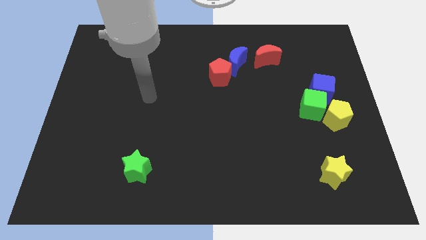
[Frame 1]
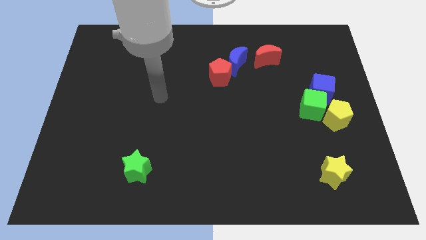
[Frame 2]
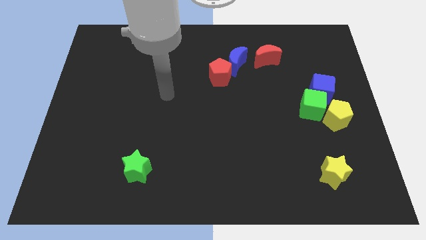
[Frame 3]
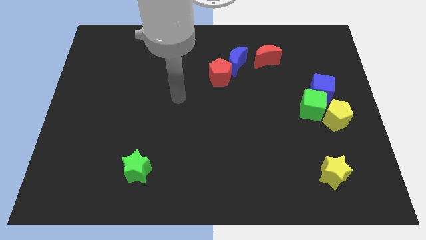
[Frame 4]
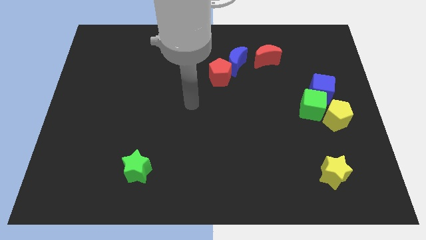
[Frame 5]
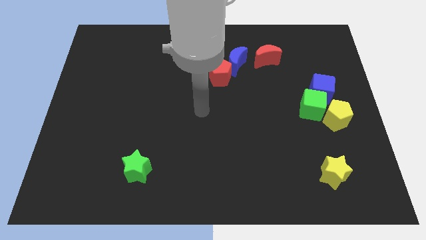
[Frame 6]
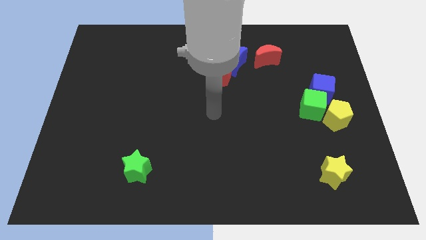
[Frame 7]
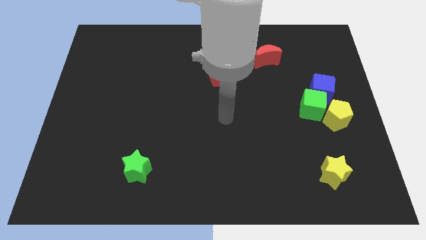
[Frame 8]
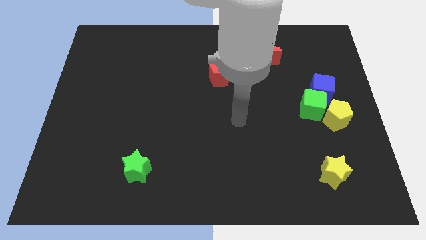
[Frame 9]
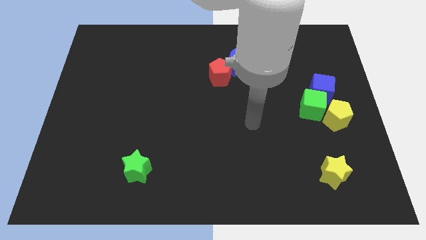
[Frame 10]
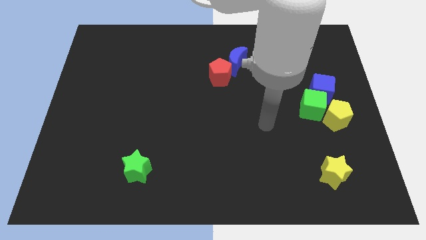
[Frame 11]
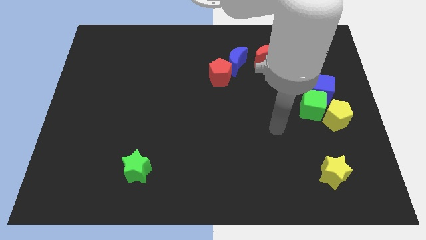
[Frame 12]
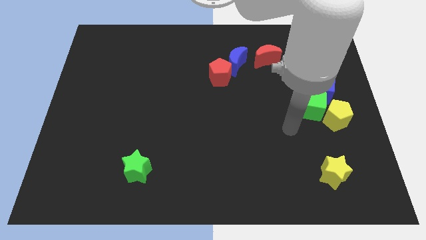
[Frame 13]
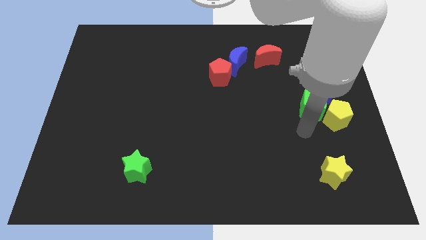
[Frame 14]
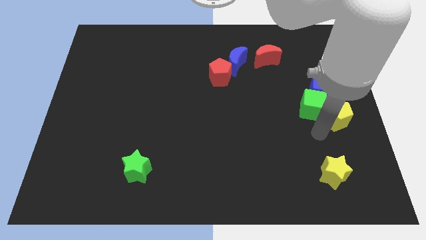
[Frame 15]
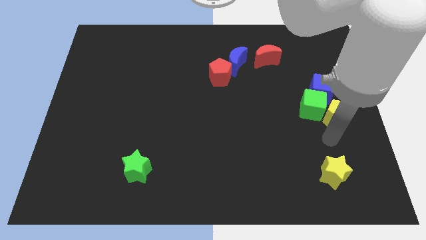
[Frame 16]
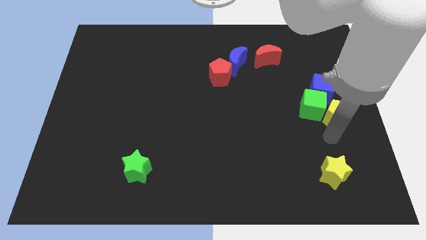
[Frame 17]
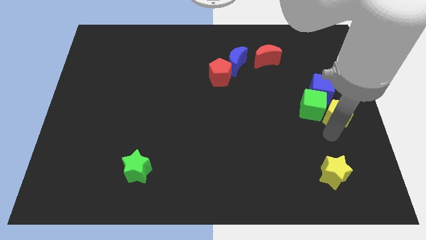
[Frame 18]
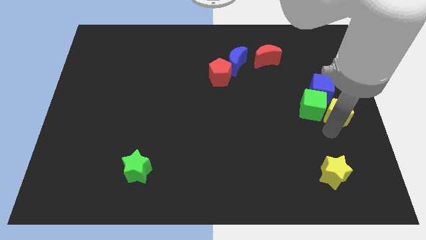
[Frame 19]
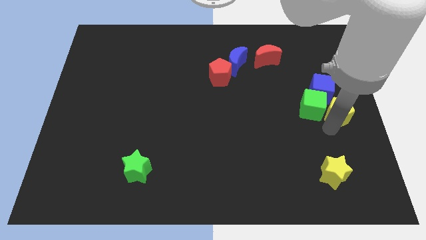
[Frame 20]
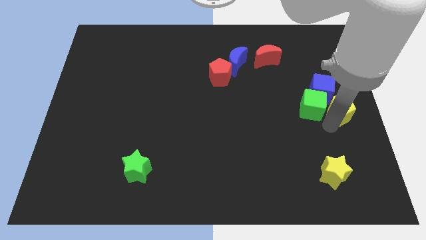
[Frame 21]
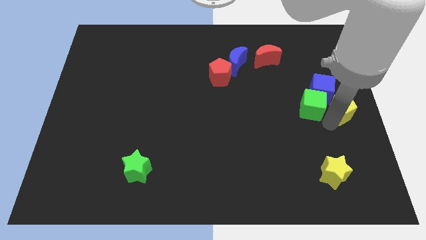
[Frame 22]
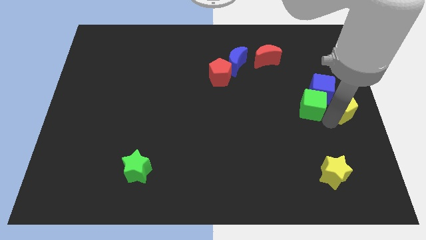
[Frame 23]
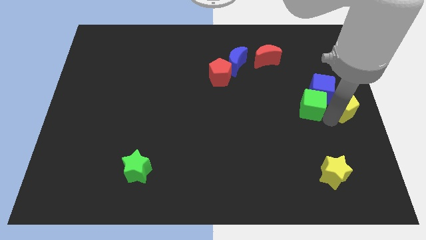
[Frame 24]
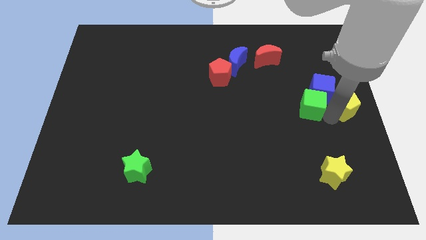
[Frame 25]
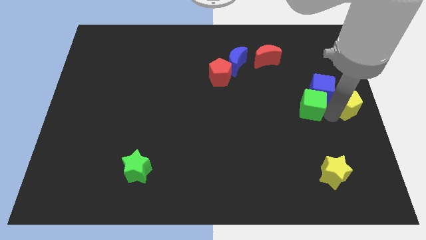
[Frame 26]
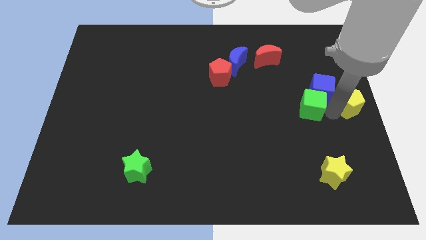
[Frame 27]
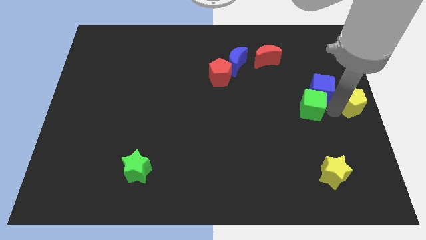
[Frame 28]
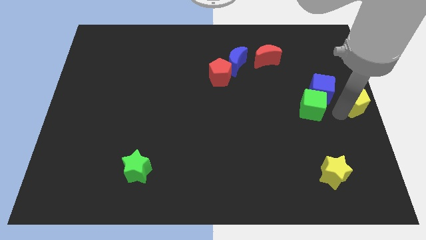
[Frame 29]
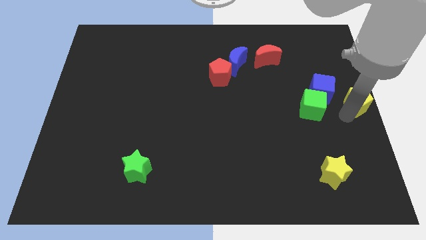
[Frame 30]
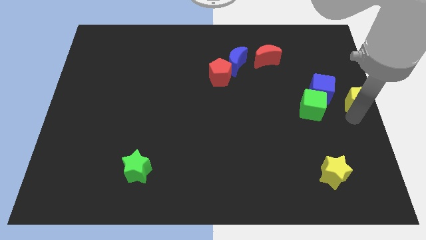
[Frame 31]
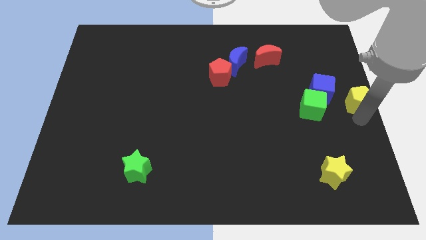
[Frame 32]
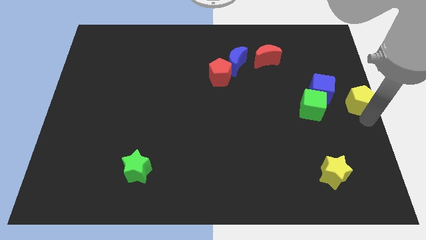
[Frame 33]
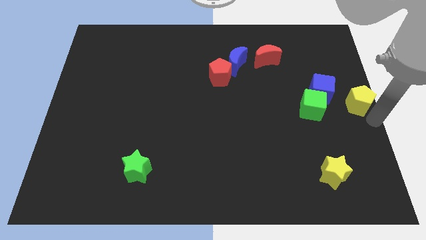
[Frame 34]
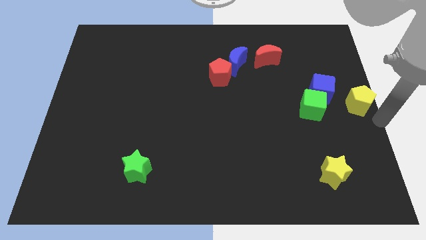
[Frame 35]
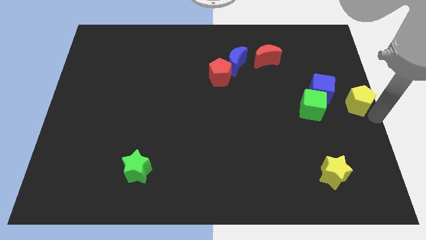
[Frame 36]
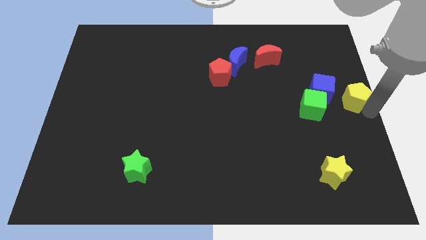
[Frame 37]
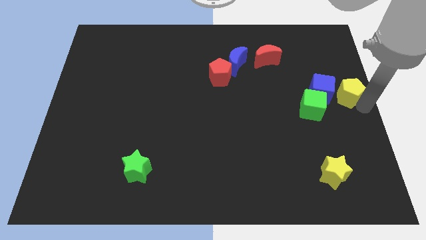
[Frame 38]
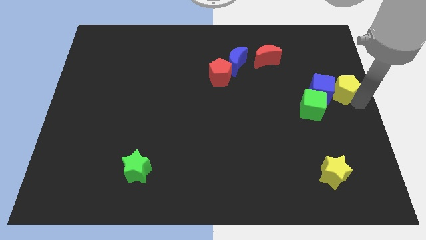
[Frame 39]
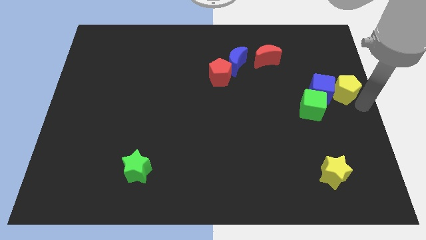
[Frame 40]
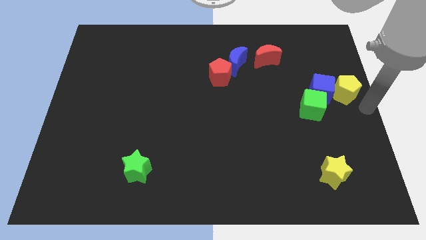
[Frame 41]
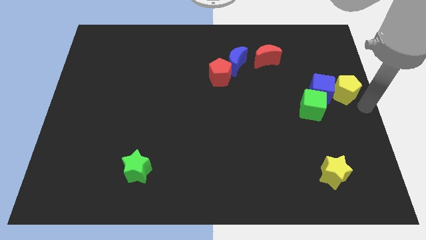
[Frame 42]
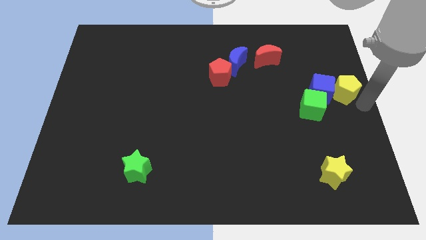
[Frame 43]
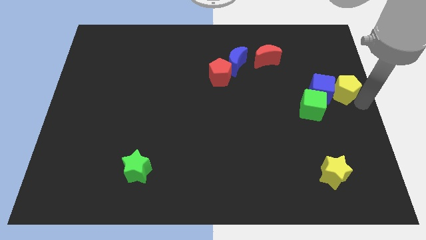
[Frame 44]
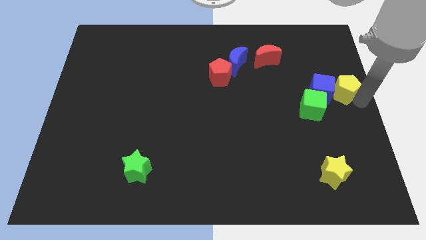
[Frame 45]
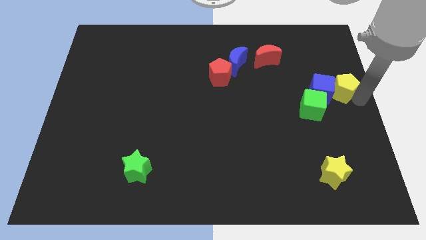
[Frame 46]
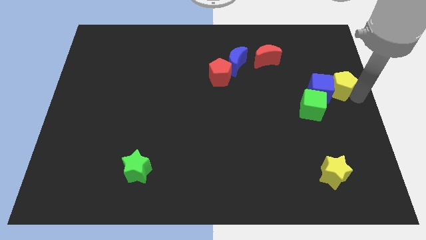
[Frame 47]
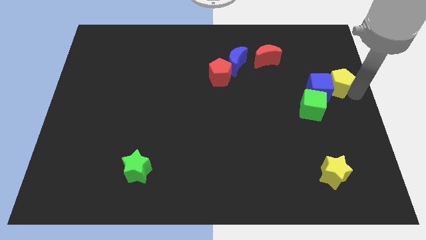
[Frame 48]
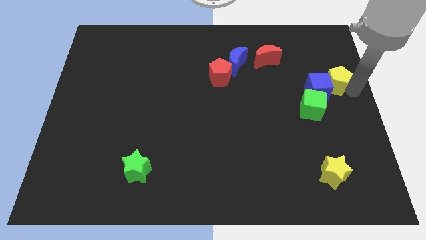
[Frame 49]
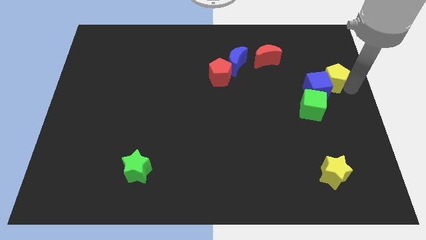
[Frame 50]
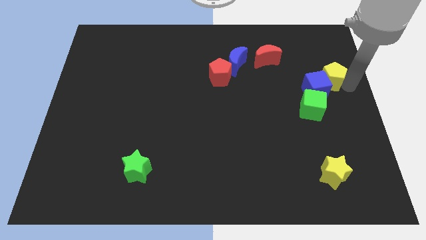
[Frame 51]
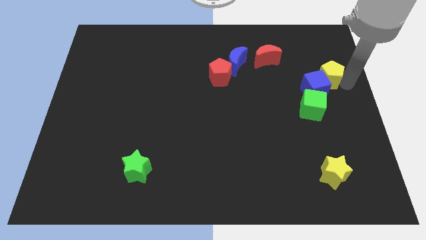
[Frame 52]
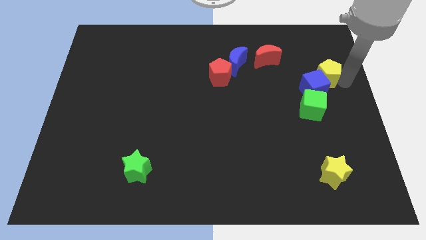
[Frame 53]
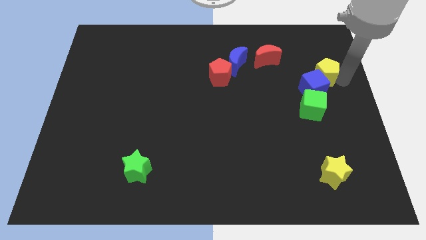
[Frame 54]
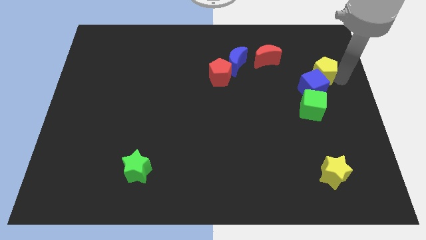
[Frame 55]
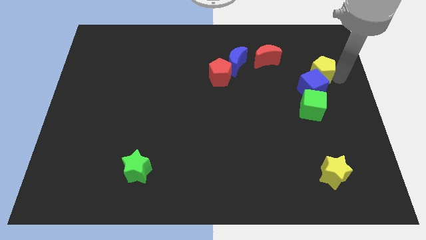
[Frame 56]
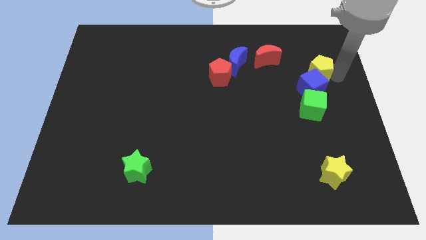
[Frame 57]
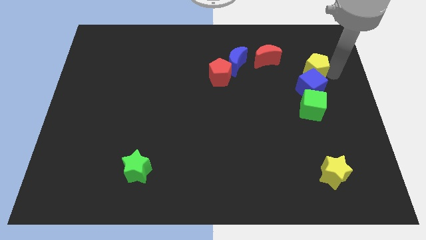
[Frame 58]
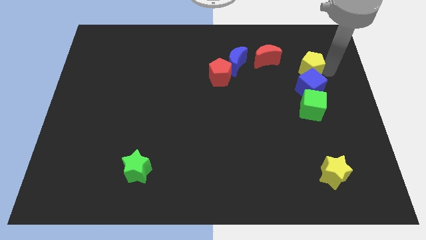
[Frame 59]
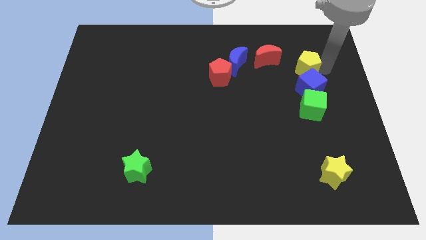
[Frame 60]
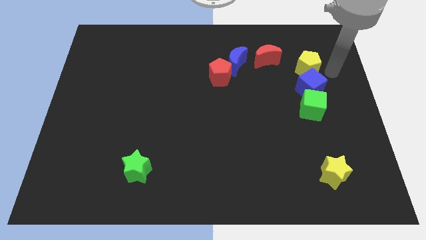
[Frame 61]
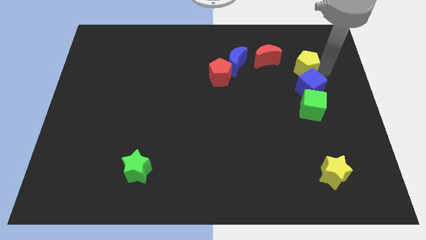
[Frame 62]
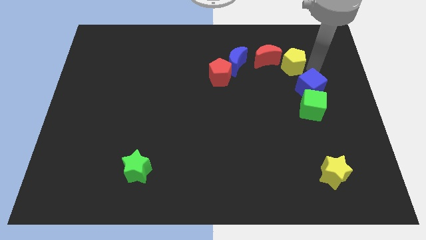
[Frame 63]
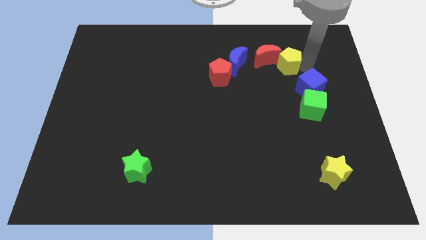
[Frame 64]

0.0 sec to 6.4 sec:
move the yellow pentagon next to the red moon

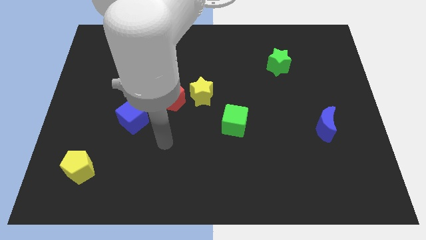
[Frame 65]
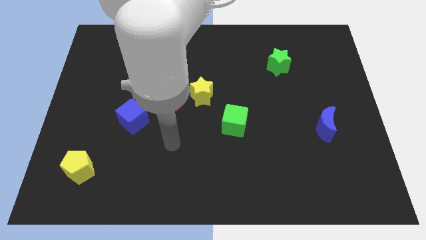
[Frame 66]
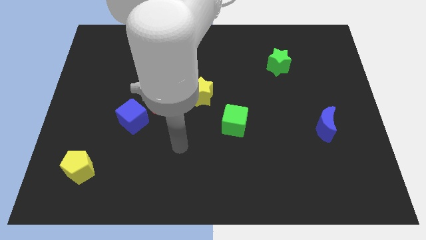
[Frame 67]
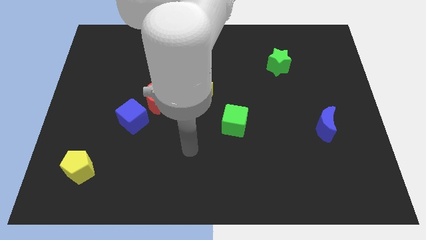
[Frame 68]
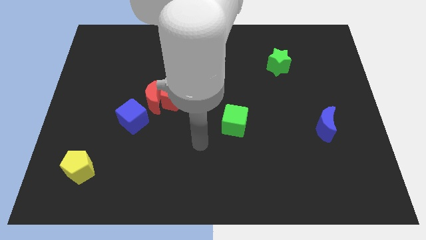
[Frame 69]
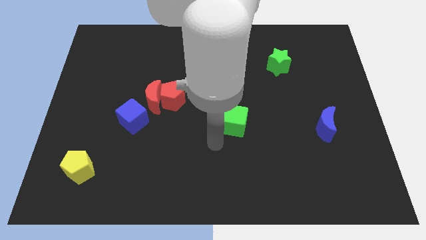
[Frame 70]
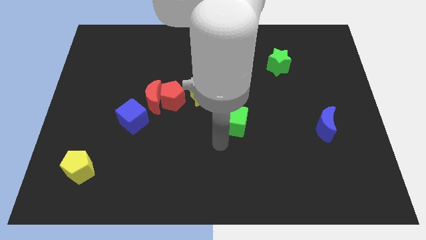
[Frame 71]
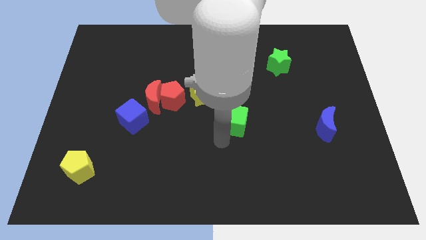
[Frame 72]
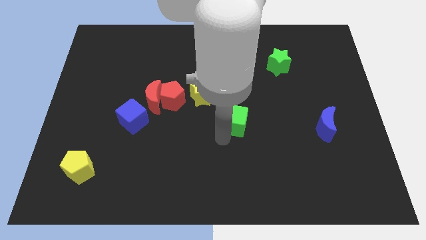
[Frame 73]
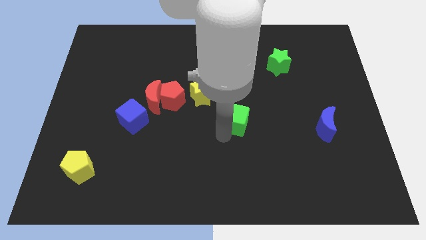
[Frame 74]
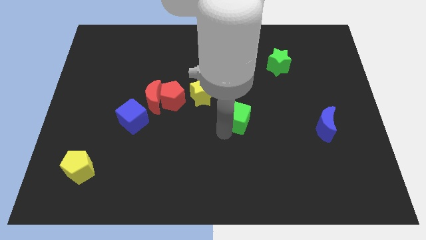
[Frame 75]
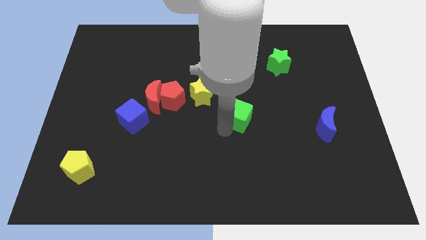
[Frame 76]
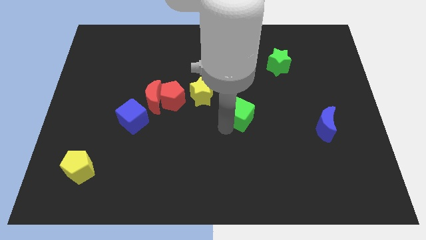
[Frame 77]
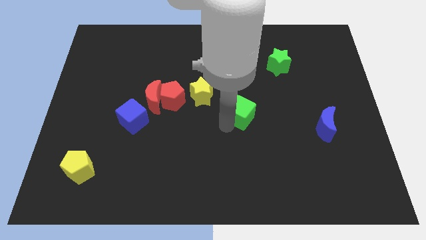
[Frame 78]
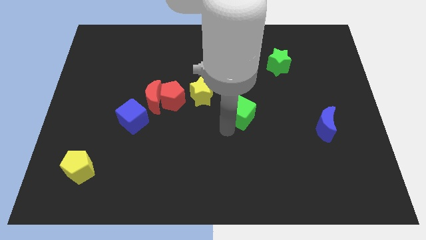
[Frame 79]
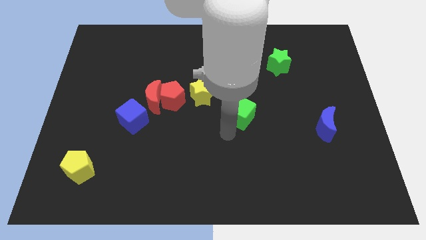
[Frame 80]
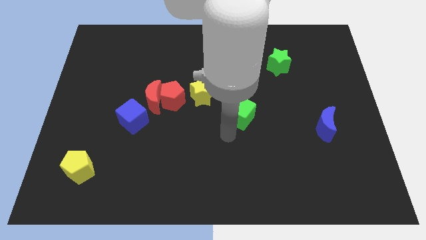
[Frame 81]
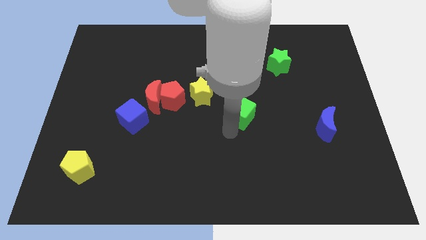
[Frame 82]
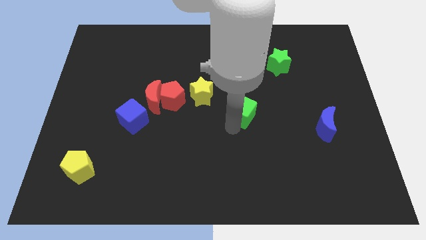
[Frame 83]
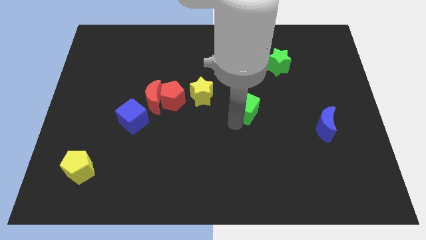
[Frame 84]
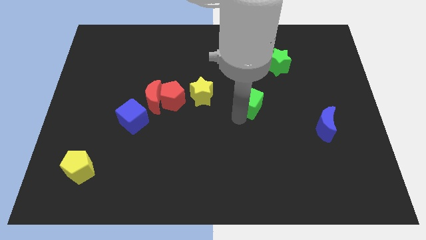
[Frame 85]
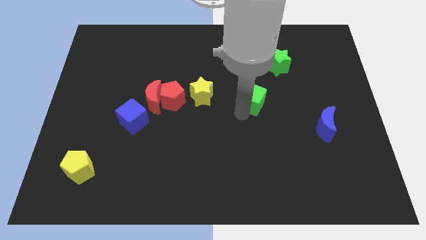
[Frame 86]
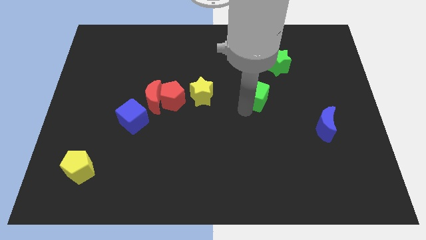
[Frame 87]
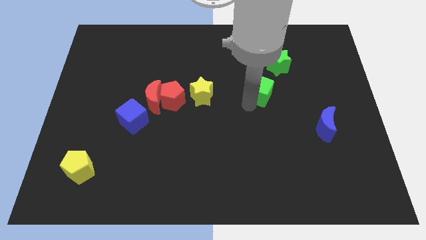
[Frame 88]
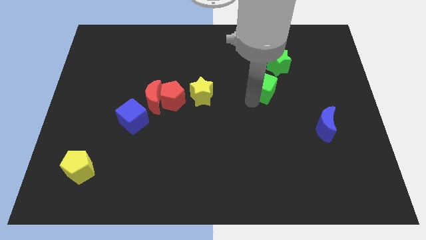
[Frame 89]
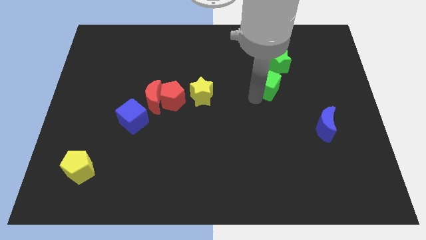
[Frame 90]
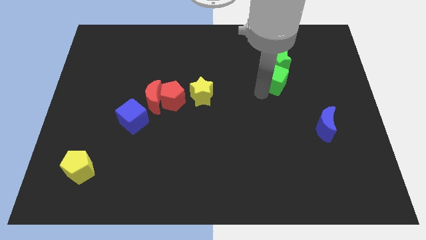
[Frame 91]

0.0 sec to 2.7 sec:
push the green cube to the green star
